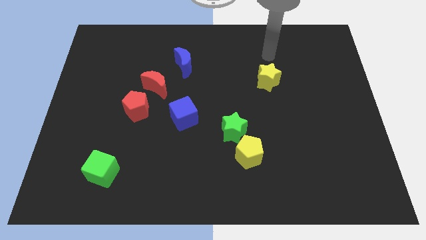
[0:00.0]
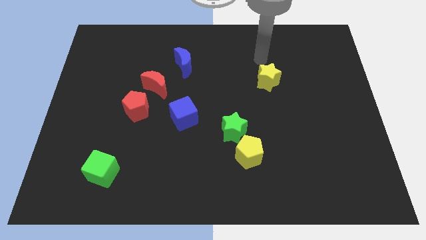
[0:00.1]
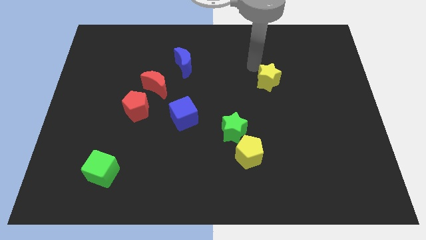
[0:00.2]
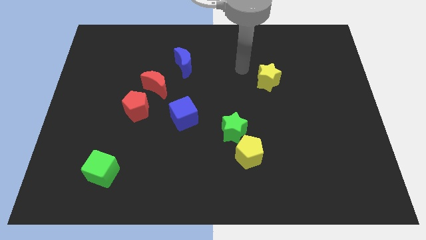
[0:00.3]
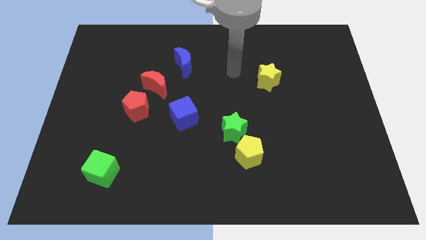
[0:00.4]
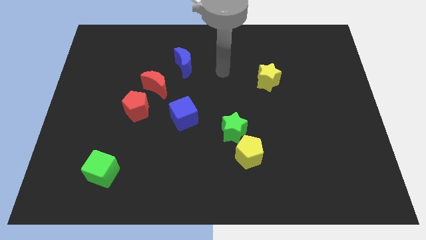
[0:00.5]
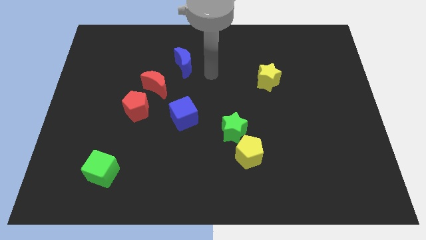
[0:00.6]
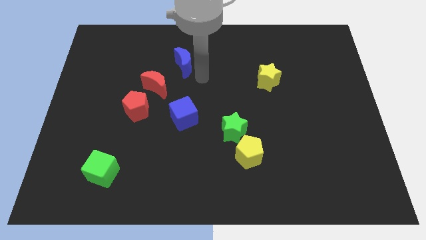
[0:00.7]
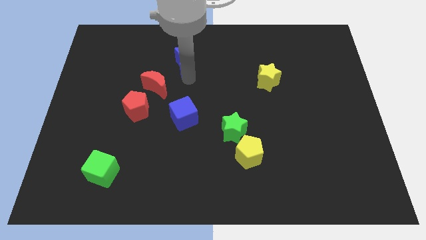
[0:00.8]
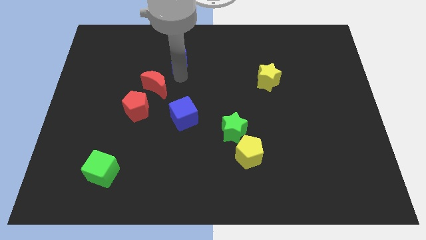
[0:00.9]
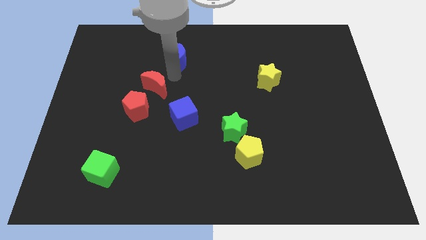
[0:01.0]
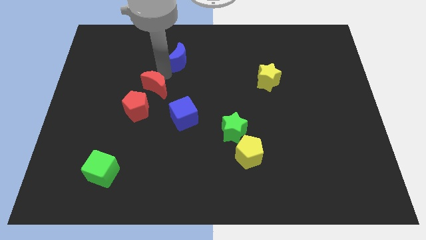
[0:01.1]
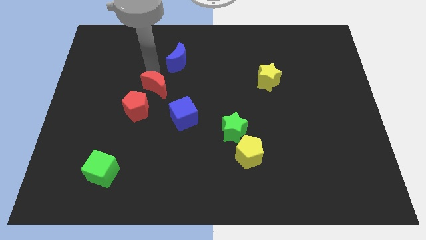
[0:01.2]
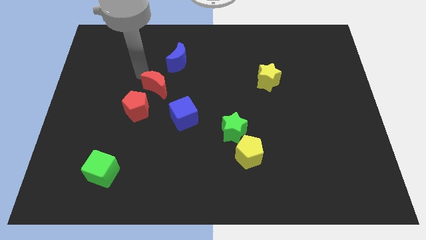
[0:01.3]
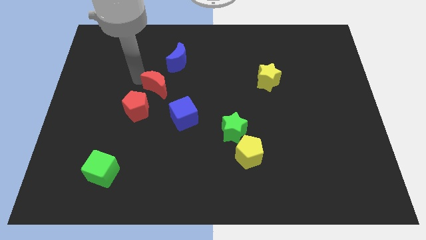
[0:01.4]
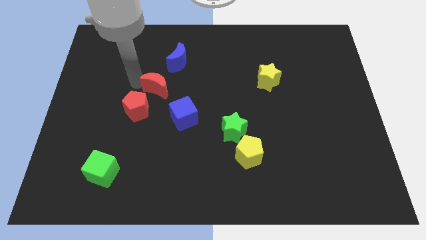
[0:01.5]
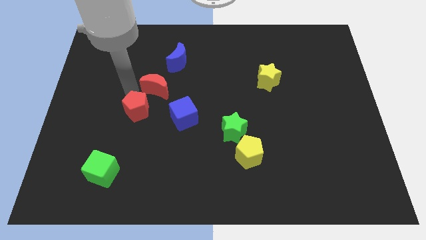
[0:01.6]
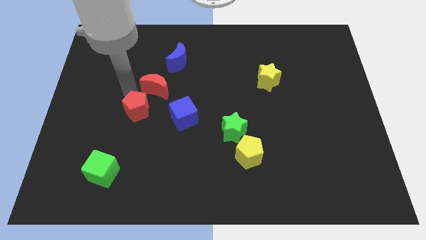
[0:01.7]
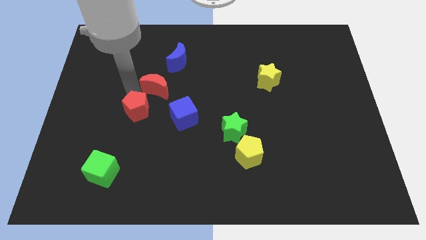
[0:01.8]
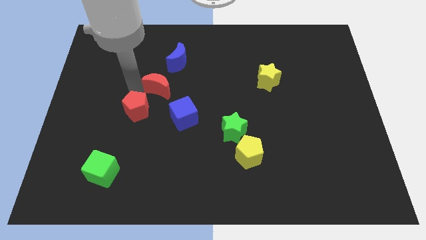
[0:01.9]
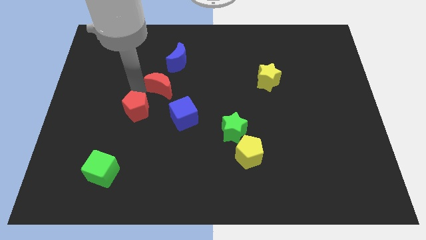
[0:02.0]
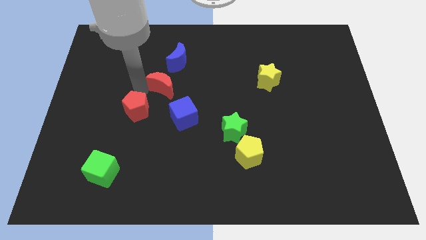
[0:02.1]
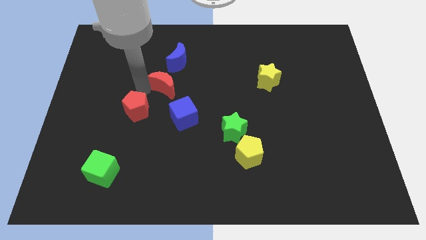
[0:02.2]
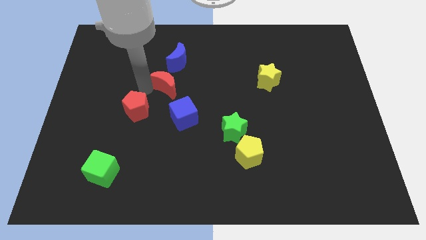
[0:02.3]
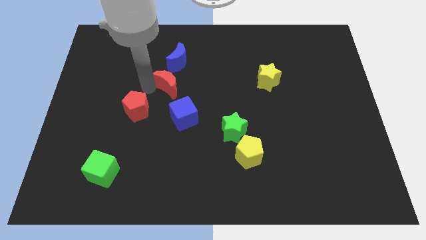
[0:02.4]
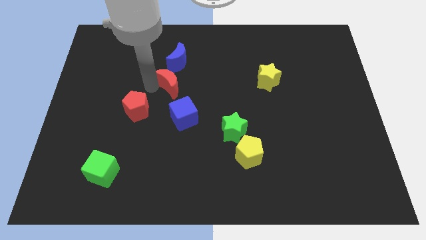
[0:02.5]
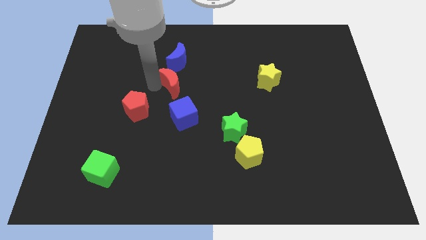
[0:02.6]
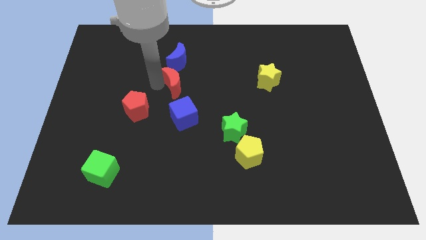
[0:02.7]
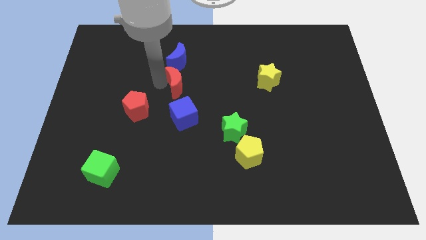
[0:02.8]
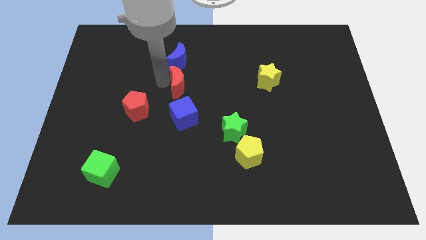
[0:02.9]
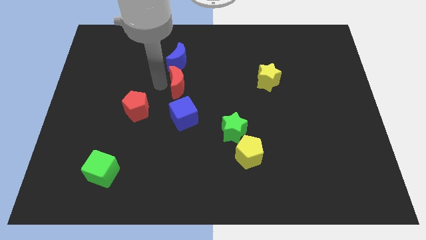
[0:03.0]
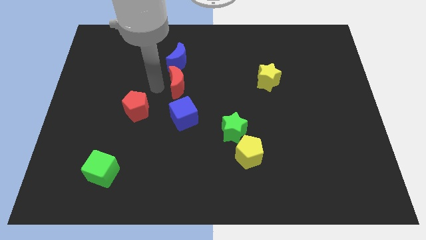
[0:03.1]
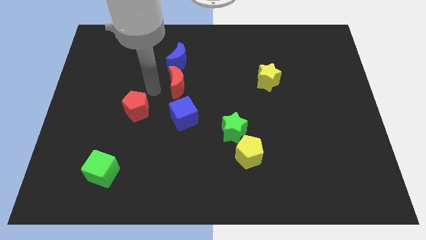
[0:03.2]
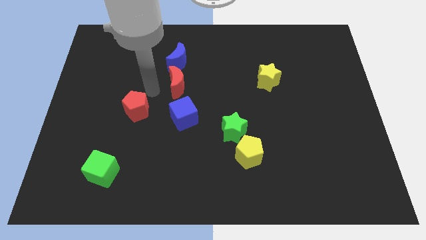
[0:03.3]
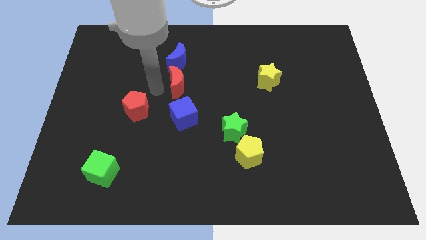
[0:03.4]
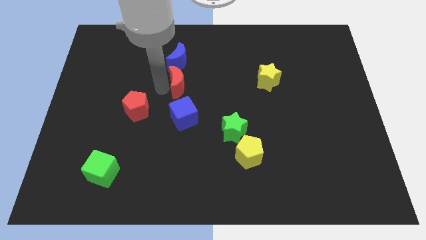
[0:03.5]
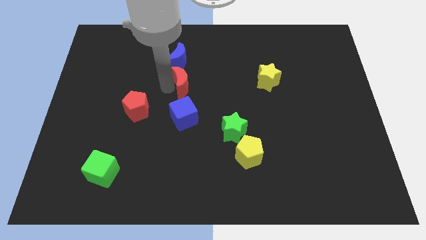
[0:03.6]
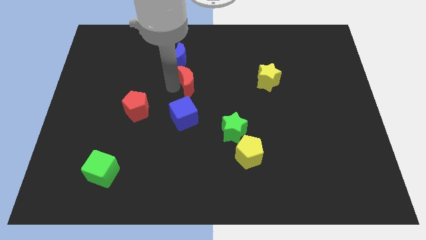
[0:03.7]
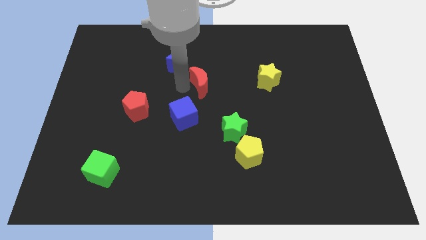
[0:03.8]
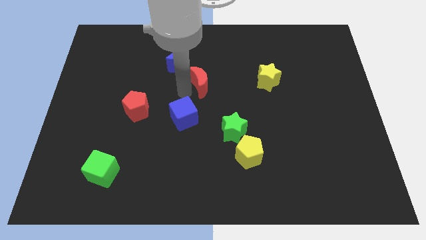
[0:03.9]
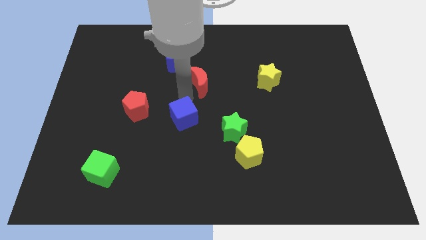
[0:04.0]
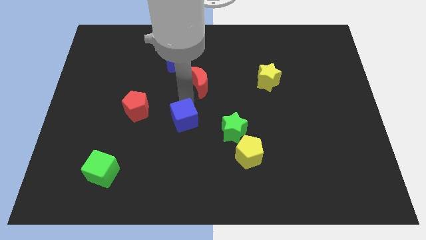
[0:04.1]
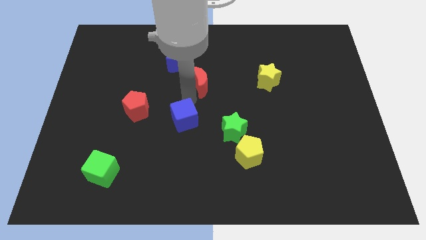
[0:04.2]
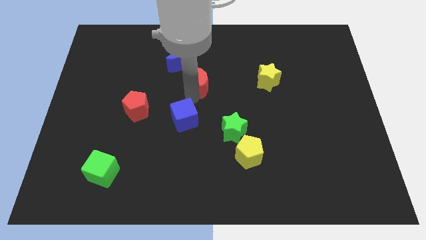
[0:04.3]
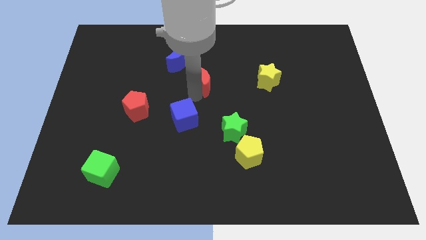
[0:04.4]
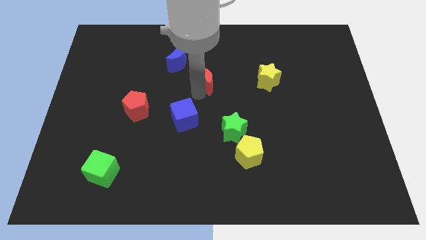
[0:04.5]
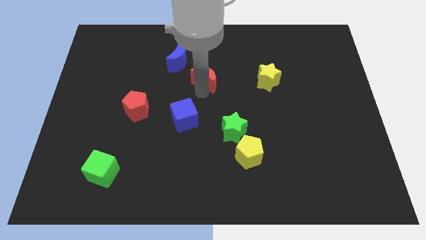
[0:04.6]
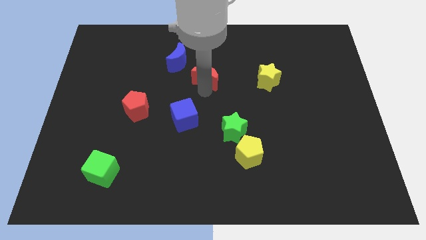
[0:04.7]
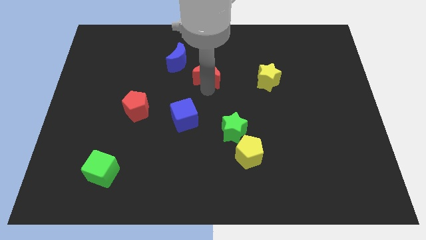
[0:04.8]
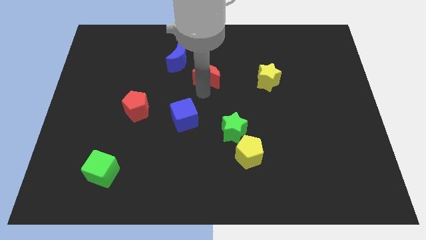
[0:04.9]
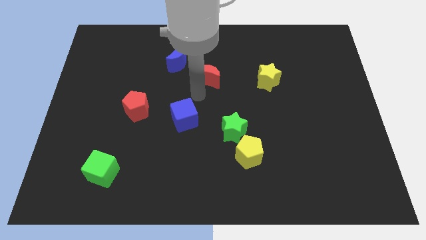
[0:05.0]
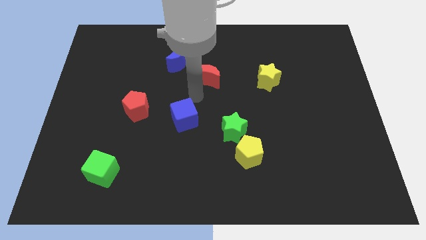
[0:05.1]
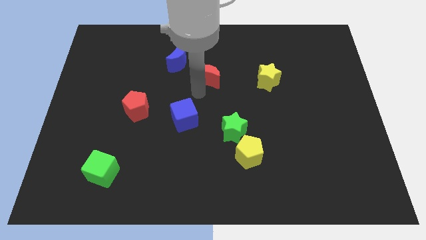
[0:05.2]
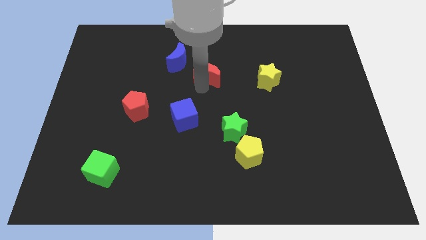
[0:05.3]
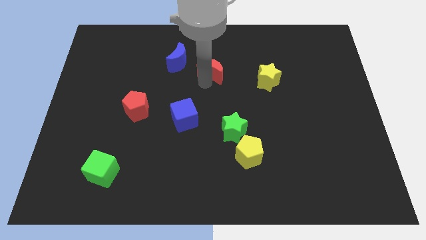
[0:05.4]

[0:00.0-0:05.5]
move the red moon to the right of the blue moon

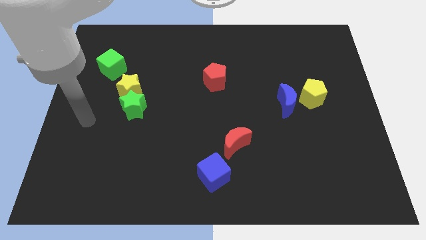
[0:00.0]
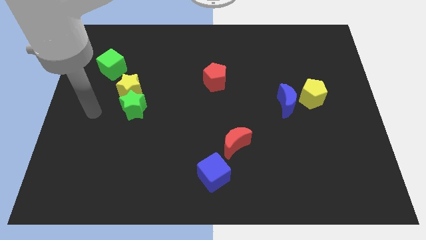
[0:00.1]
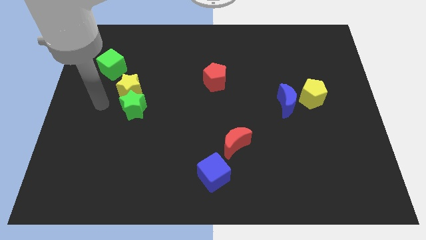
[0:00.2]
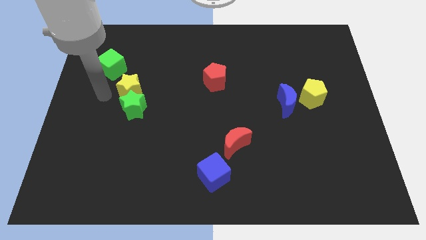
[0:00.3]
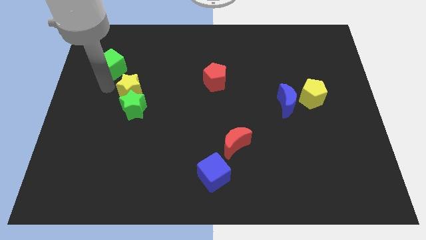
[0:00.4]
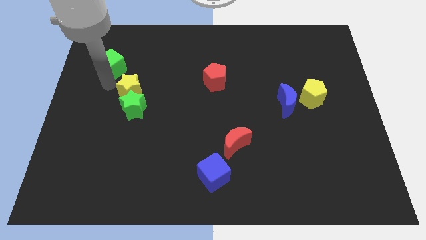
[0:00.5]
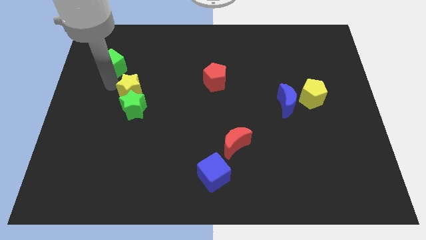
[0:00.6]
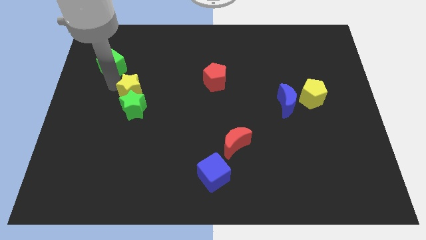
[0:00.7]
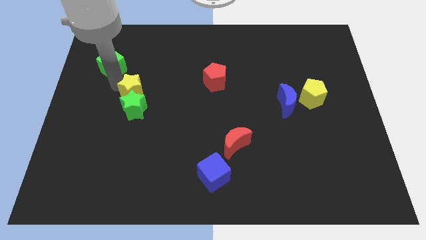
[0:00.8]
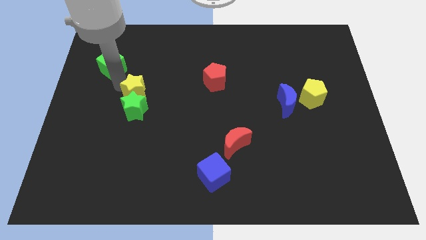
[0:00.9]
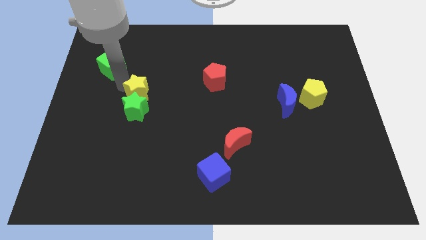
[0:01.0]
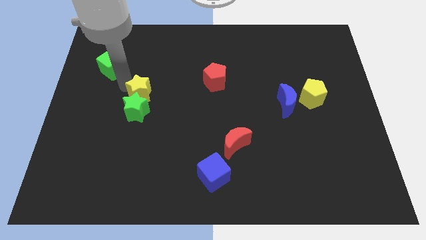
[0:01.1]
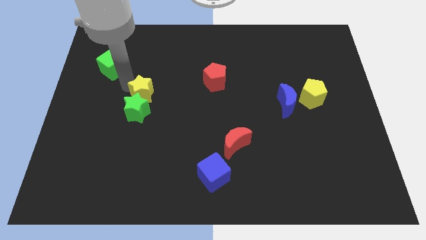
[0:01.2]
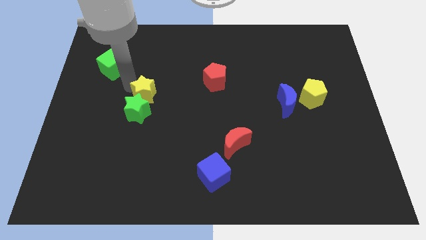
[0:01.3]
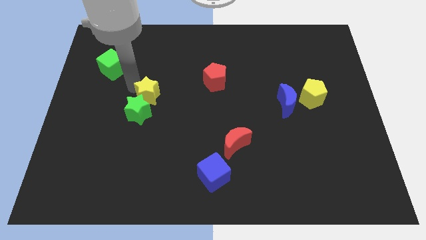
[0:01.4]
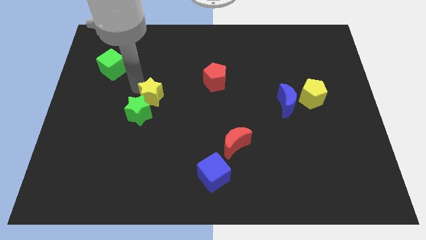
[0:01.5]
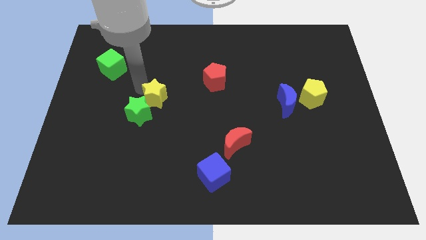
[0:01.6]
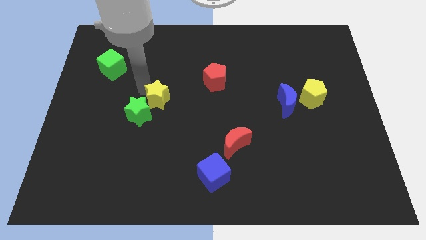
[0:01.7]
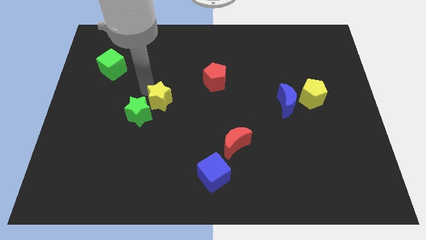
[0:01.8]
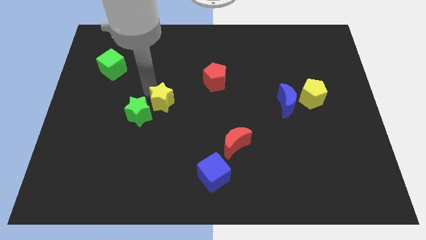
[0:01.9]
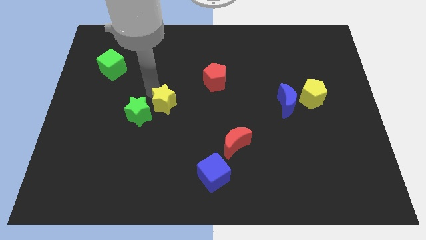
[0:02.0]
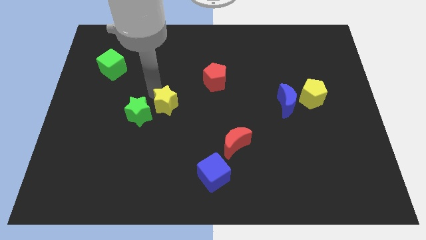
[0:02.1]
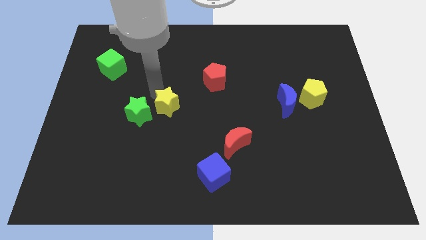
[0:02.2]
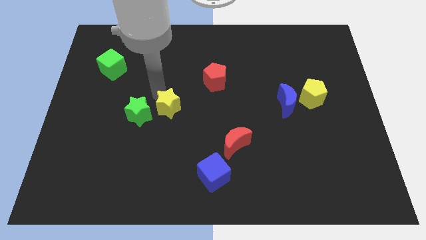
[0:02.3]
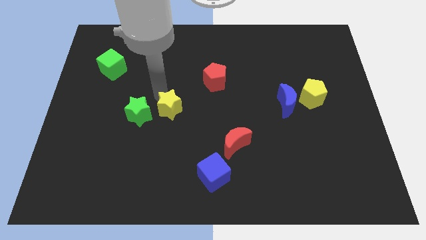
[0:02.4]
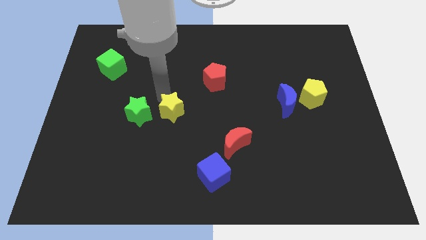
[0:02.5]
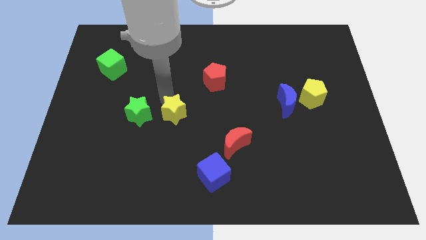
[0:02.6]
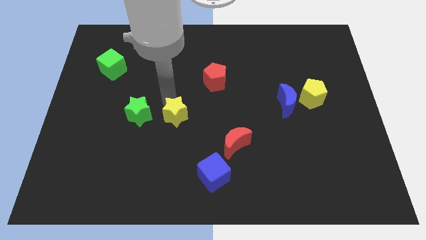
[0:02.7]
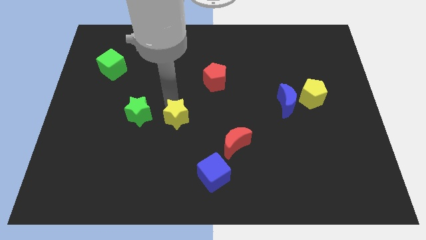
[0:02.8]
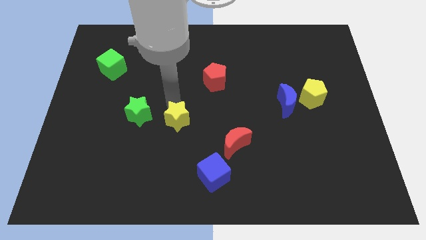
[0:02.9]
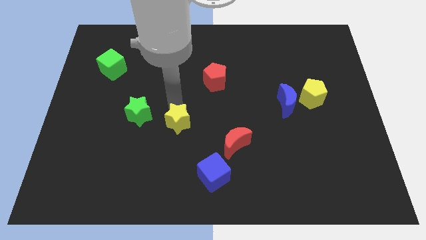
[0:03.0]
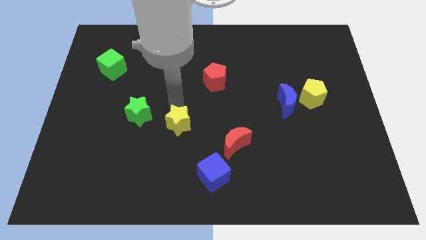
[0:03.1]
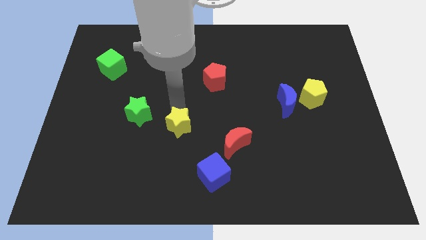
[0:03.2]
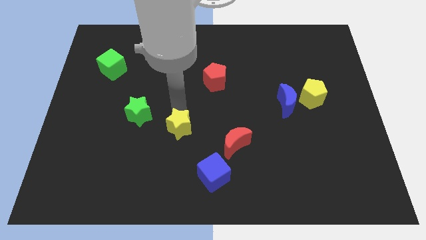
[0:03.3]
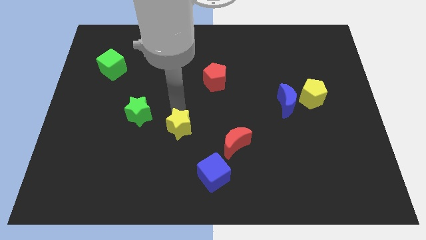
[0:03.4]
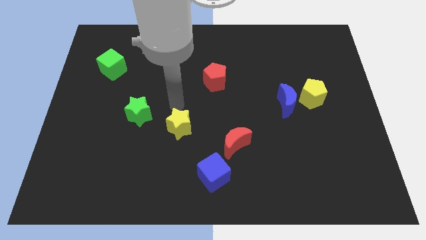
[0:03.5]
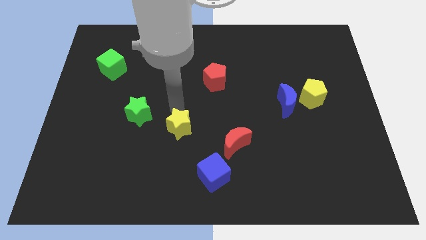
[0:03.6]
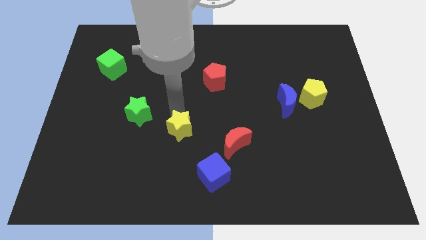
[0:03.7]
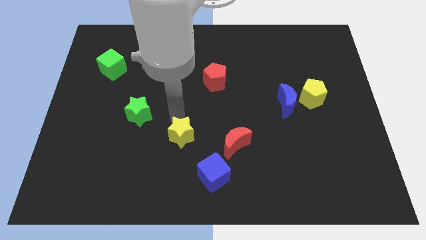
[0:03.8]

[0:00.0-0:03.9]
put the yellow star to the top left of the blue cube
